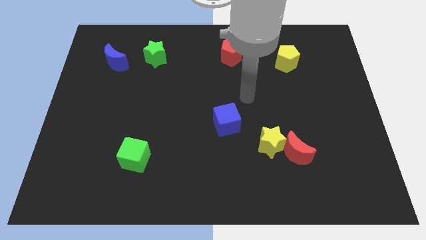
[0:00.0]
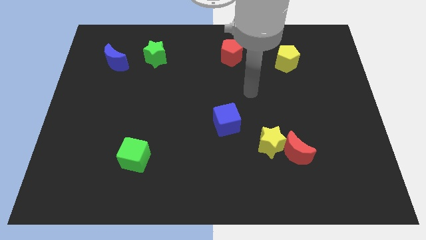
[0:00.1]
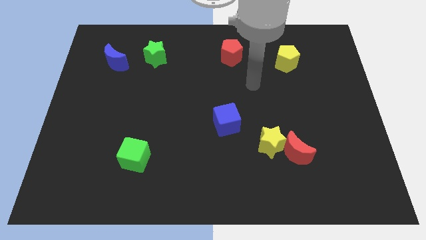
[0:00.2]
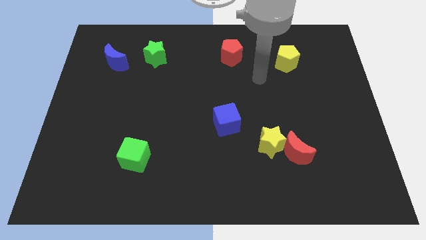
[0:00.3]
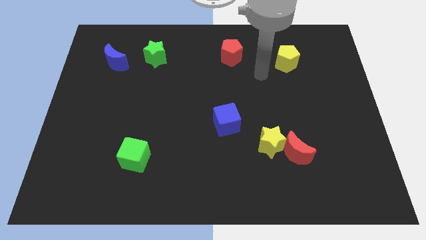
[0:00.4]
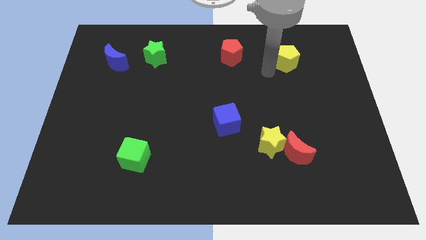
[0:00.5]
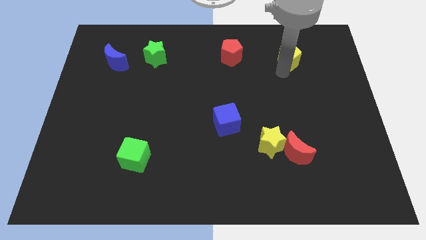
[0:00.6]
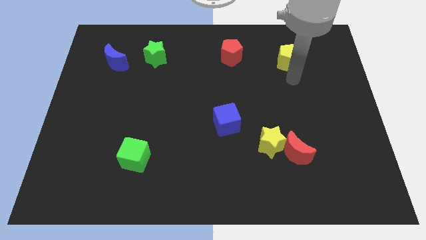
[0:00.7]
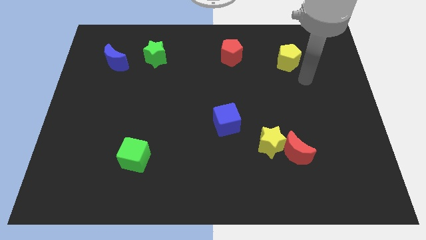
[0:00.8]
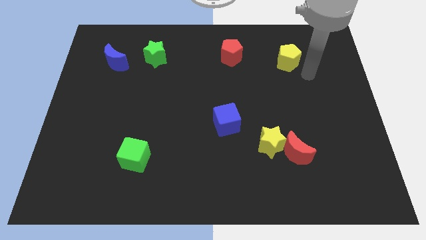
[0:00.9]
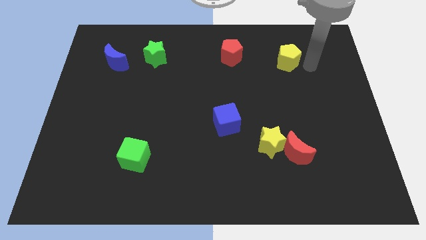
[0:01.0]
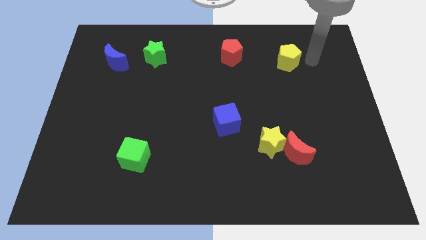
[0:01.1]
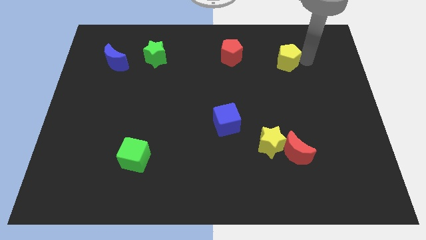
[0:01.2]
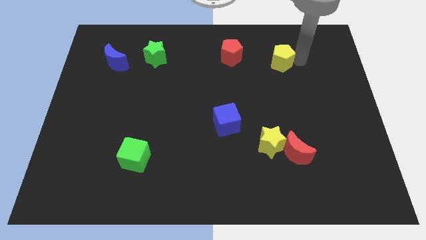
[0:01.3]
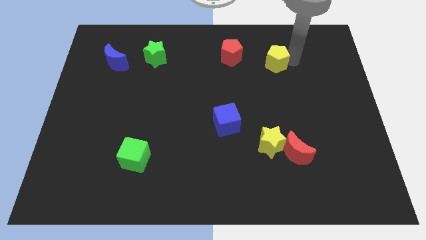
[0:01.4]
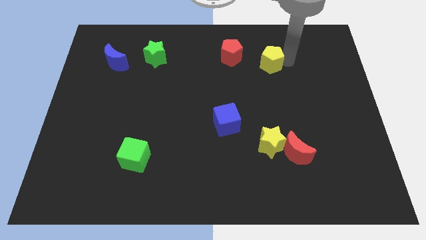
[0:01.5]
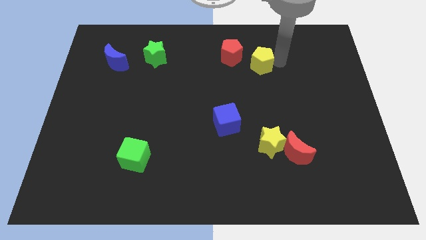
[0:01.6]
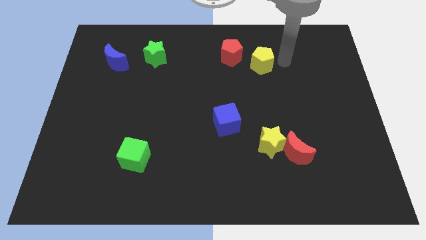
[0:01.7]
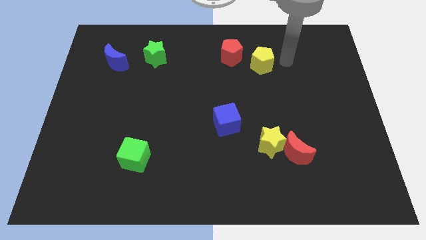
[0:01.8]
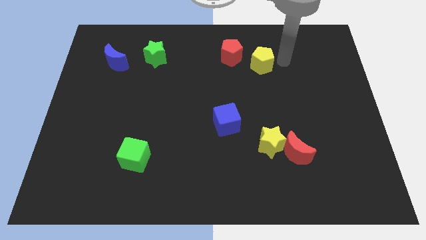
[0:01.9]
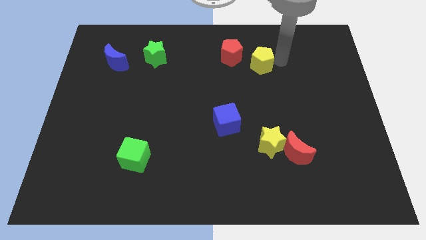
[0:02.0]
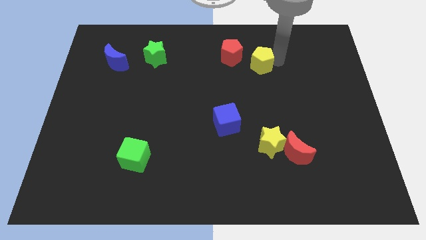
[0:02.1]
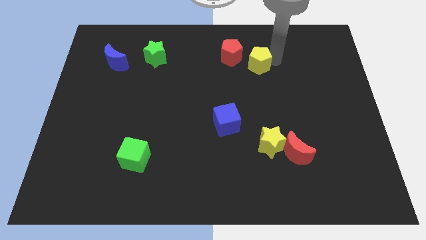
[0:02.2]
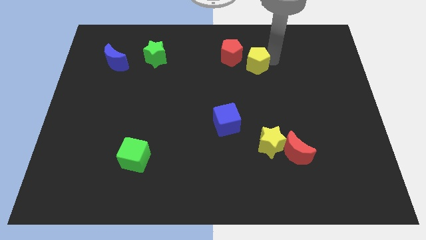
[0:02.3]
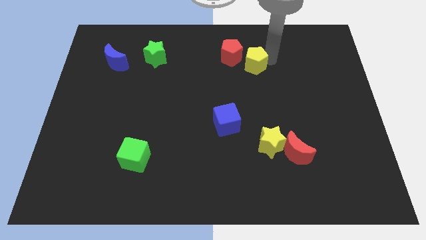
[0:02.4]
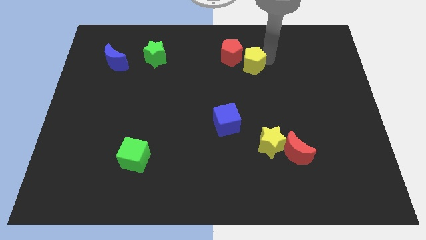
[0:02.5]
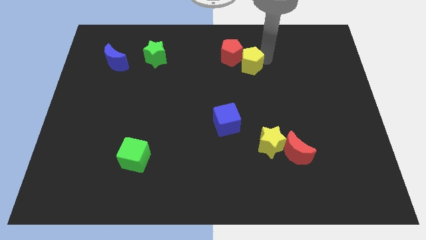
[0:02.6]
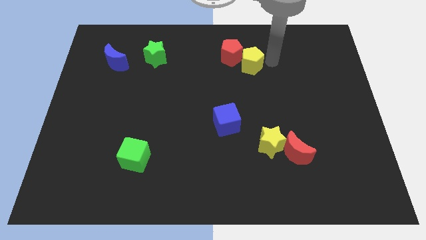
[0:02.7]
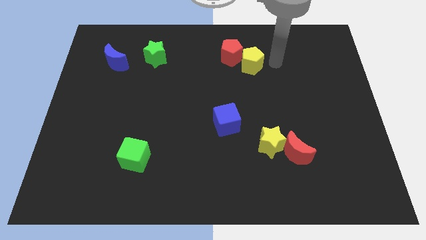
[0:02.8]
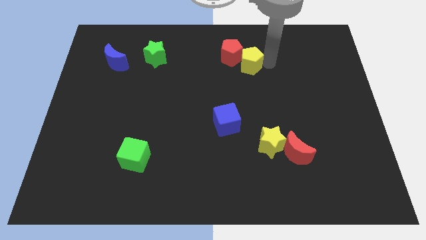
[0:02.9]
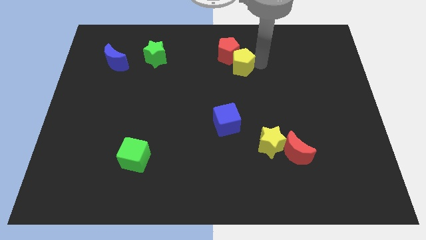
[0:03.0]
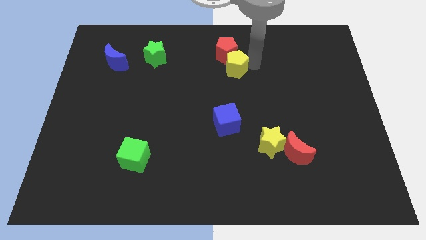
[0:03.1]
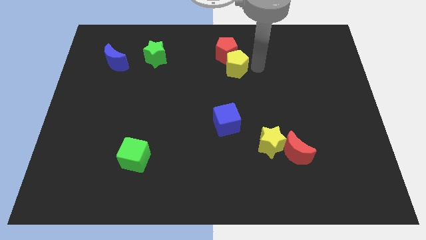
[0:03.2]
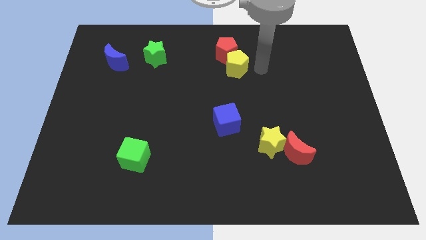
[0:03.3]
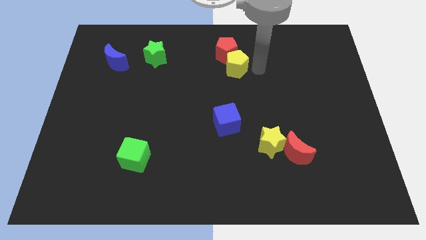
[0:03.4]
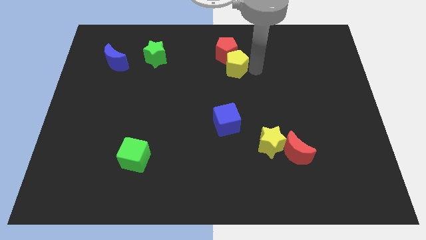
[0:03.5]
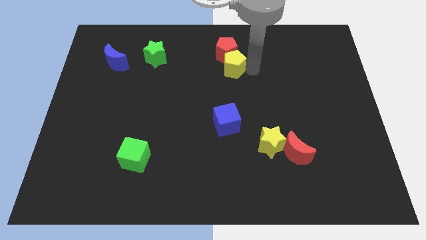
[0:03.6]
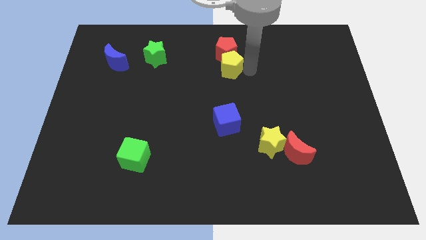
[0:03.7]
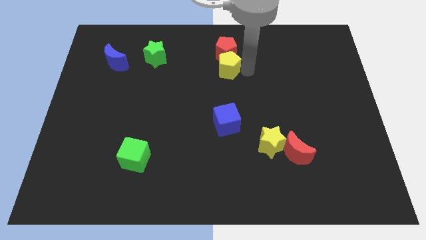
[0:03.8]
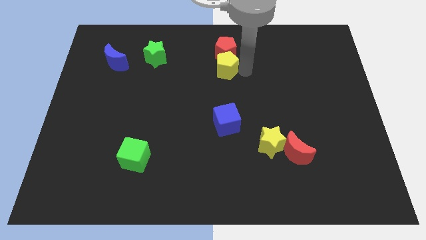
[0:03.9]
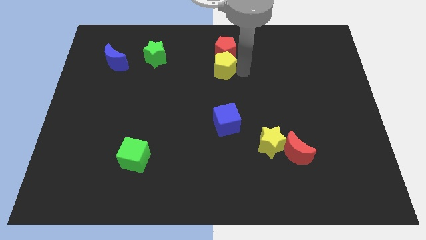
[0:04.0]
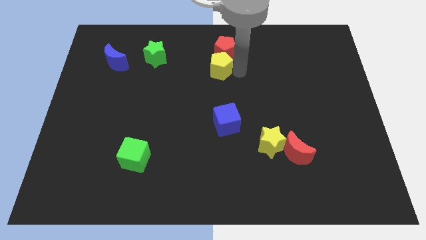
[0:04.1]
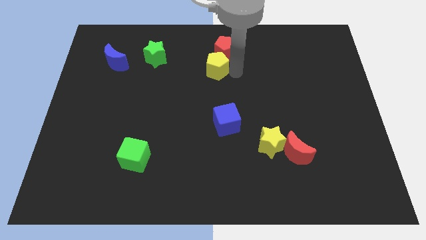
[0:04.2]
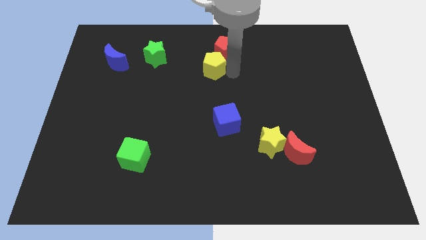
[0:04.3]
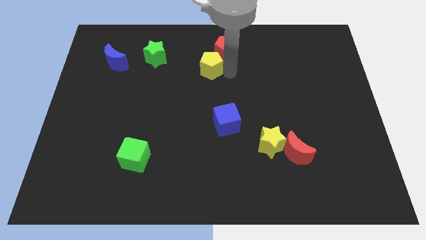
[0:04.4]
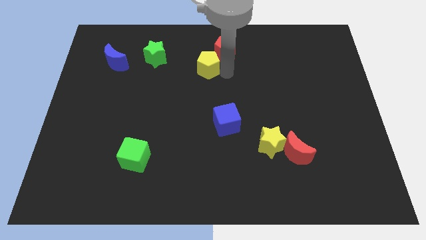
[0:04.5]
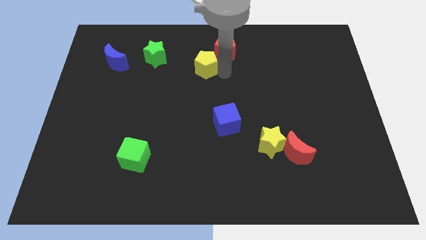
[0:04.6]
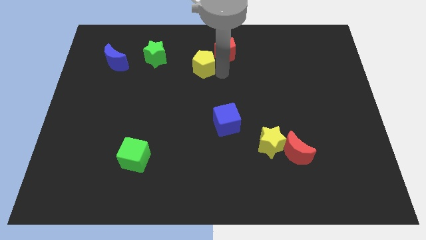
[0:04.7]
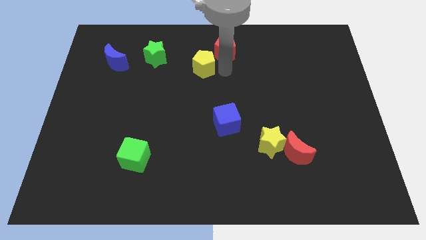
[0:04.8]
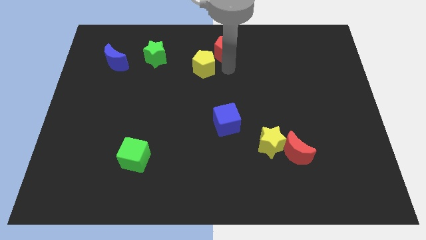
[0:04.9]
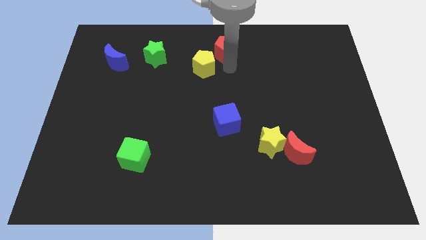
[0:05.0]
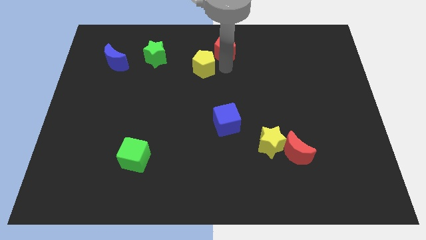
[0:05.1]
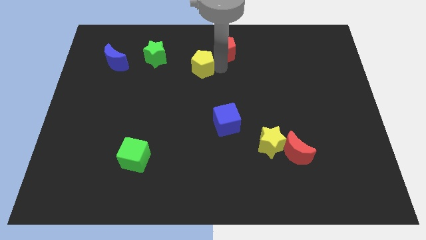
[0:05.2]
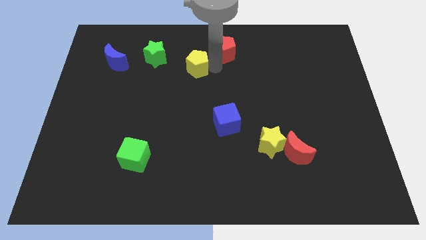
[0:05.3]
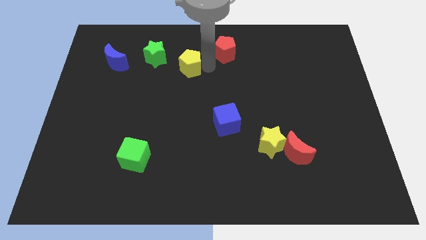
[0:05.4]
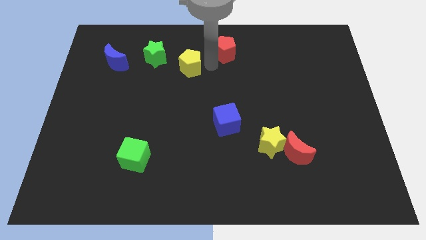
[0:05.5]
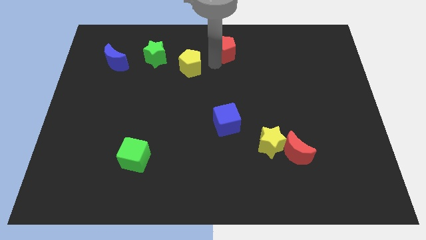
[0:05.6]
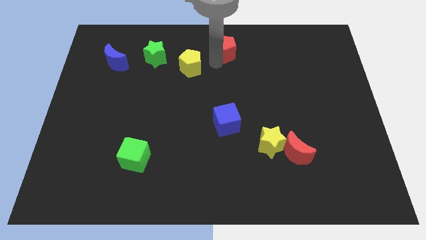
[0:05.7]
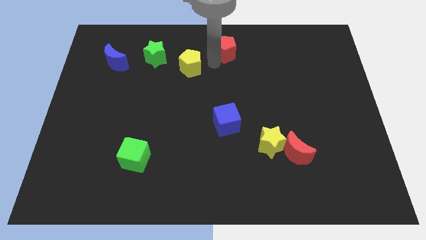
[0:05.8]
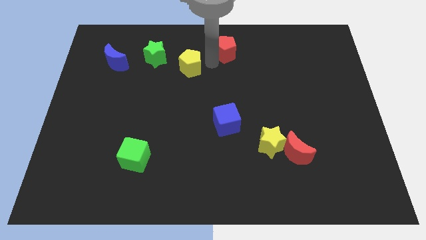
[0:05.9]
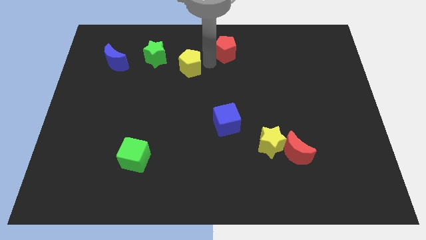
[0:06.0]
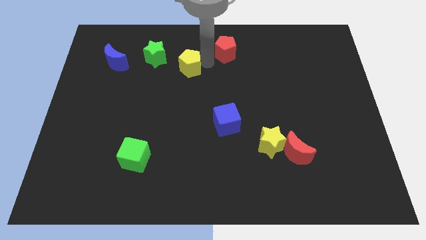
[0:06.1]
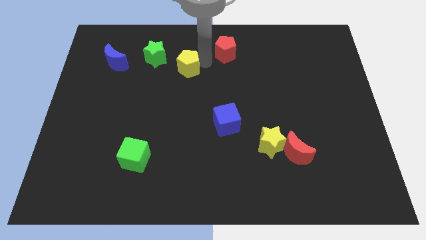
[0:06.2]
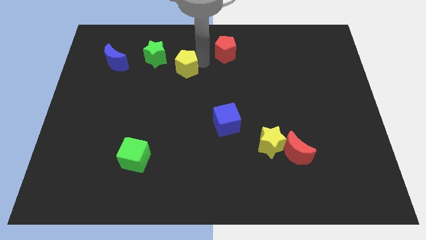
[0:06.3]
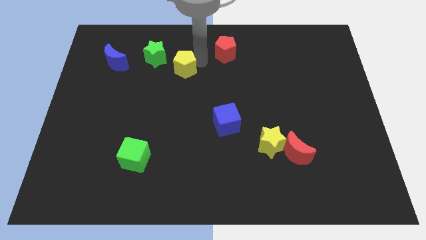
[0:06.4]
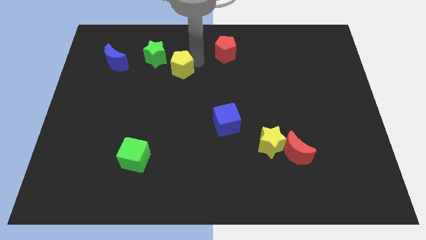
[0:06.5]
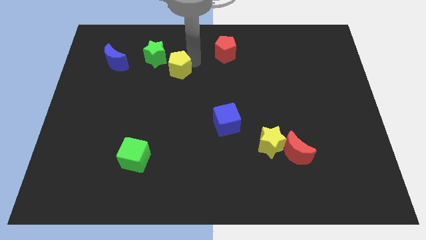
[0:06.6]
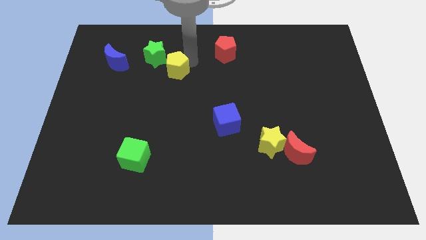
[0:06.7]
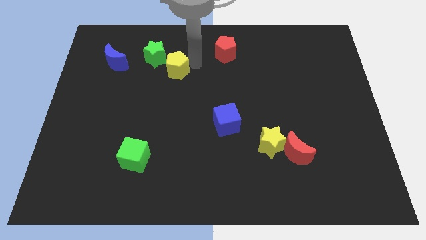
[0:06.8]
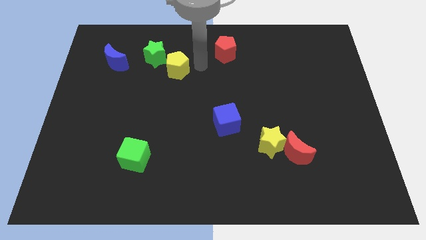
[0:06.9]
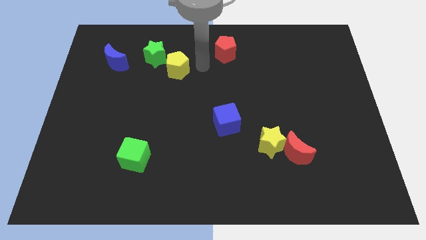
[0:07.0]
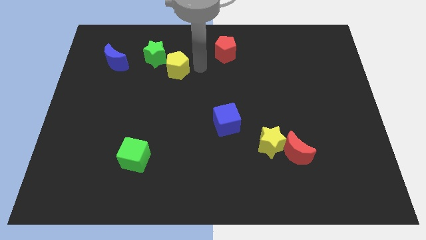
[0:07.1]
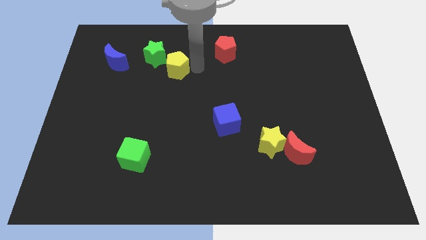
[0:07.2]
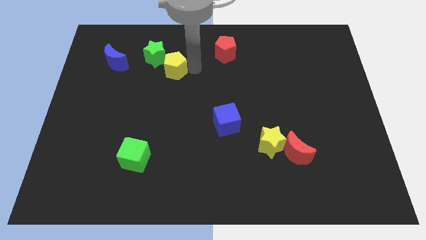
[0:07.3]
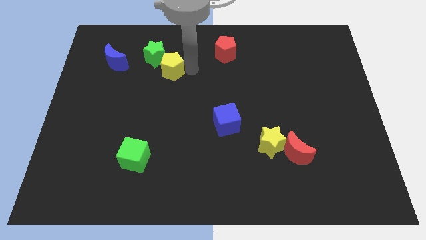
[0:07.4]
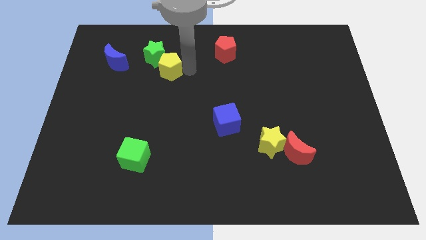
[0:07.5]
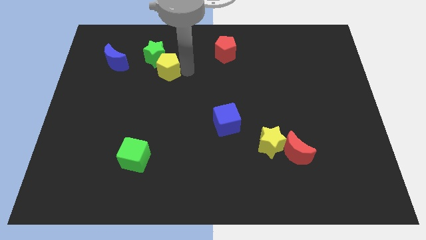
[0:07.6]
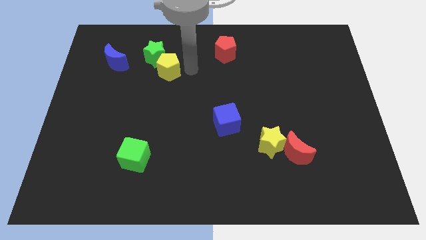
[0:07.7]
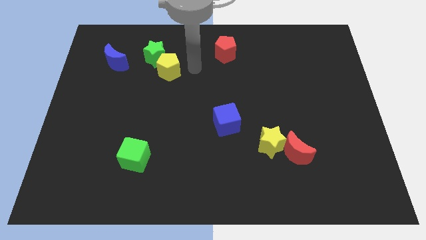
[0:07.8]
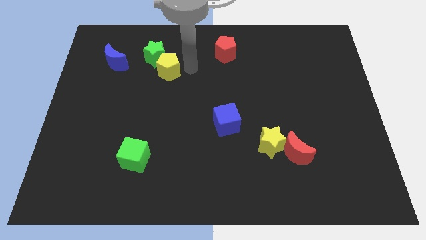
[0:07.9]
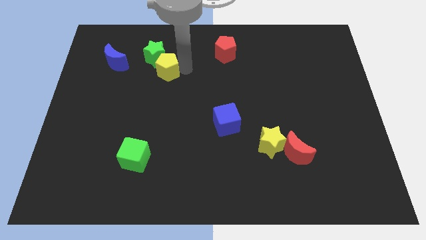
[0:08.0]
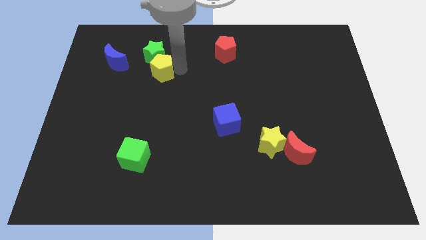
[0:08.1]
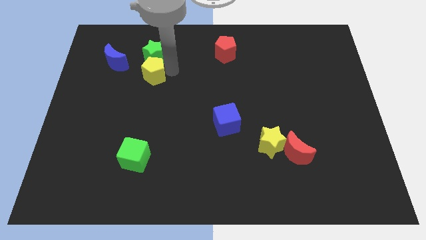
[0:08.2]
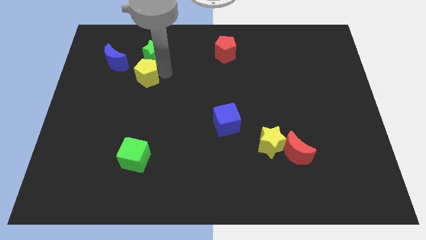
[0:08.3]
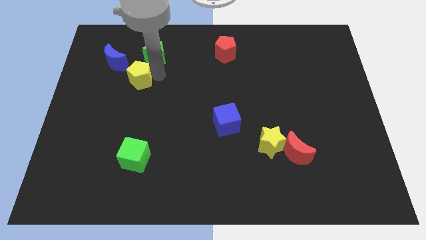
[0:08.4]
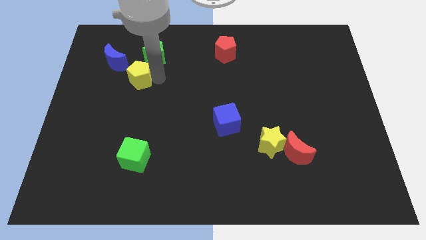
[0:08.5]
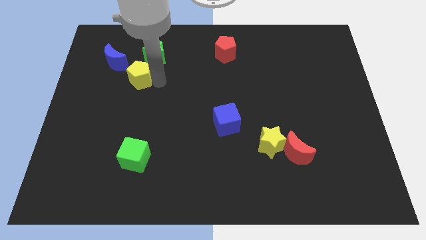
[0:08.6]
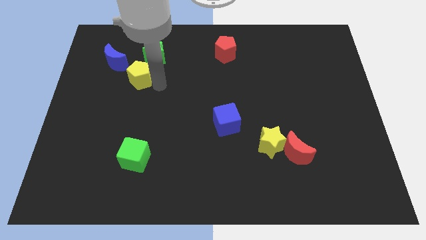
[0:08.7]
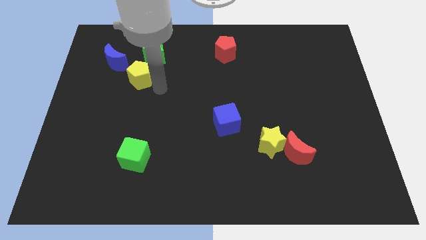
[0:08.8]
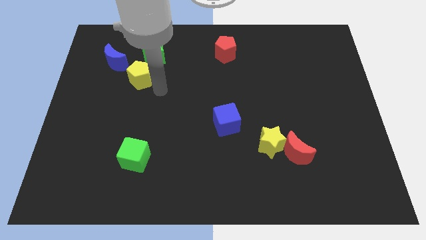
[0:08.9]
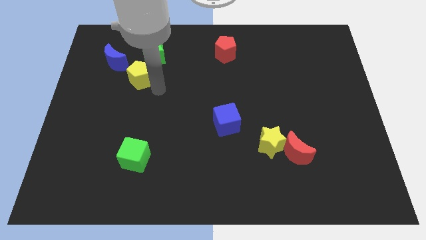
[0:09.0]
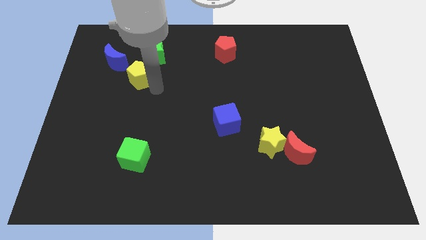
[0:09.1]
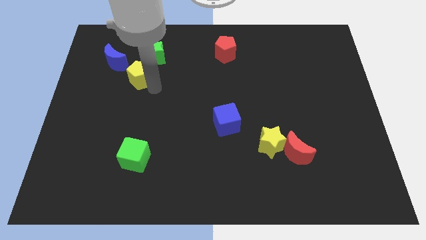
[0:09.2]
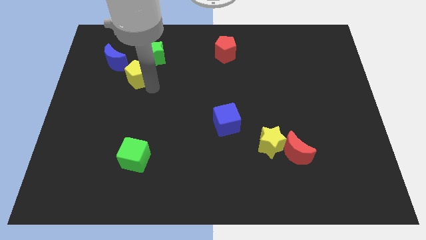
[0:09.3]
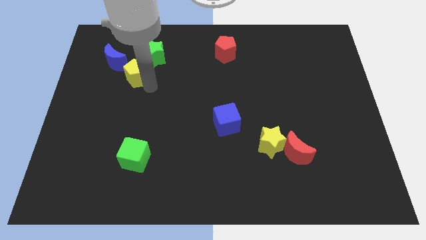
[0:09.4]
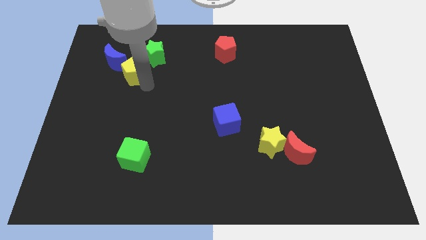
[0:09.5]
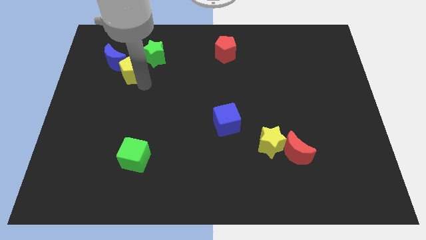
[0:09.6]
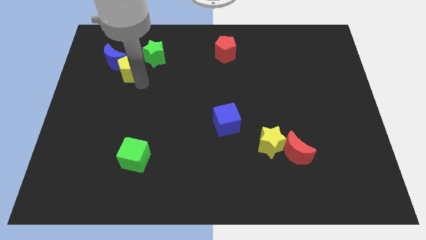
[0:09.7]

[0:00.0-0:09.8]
push the yellow pentagon towards the blue moon
